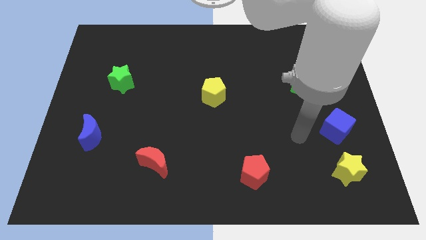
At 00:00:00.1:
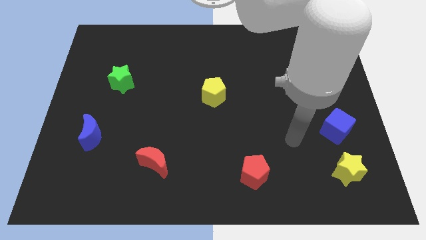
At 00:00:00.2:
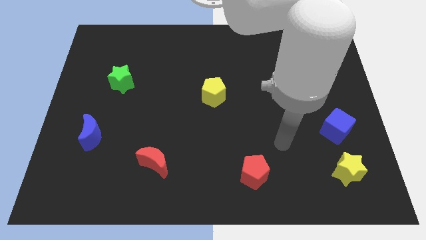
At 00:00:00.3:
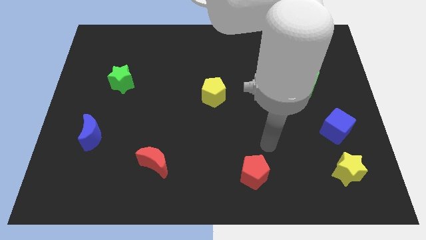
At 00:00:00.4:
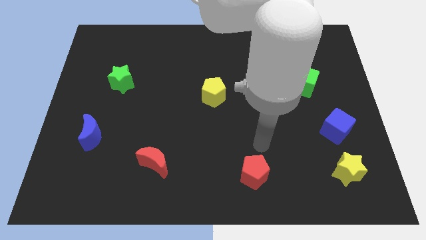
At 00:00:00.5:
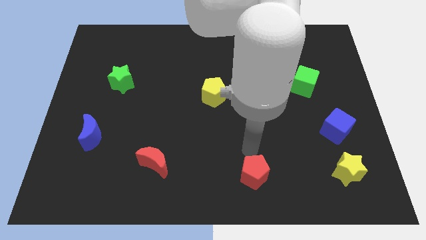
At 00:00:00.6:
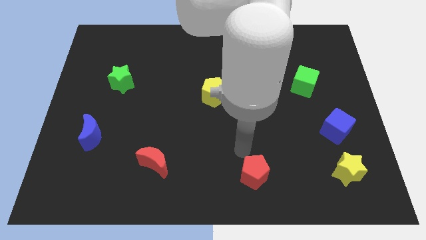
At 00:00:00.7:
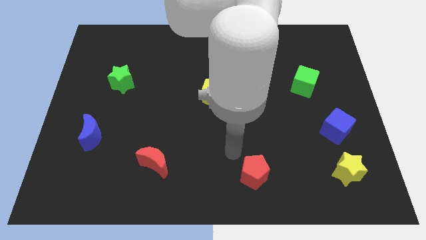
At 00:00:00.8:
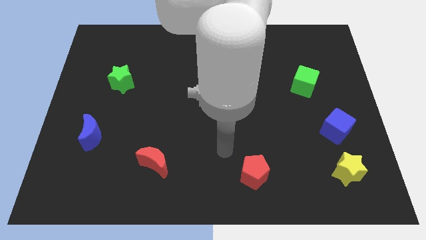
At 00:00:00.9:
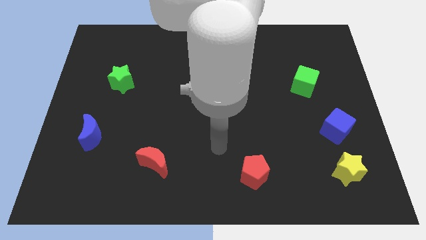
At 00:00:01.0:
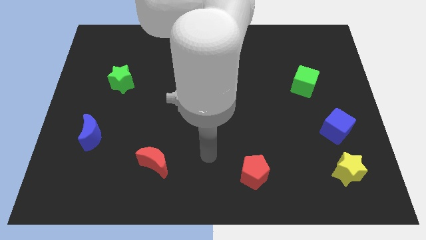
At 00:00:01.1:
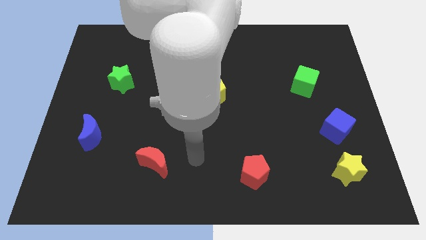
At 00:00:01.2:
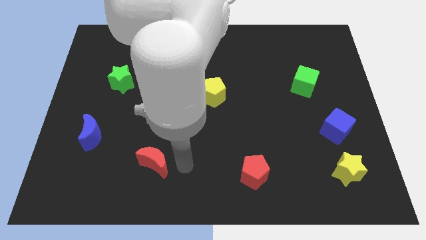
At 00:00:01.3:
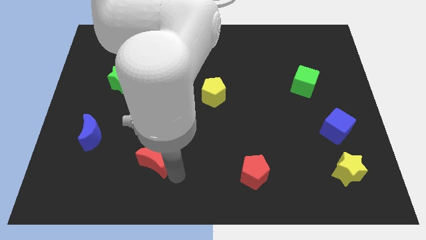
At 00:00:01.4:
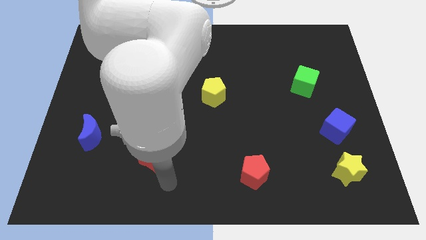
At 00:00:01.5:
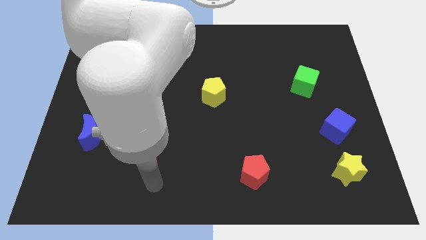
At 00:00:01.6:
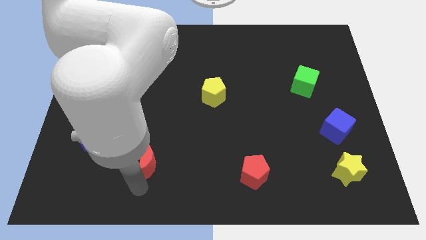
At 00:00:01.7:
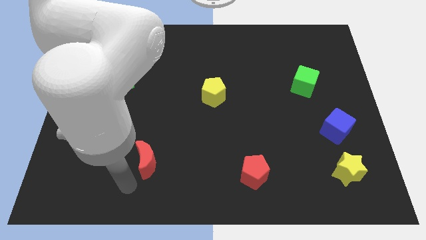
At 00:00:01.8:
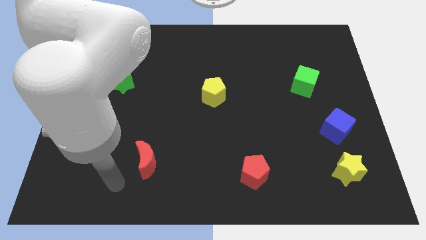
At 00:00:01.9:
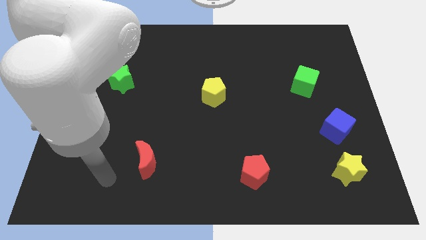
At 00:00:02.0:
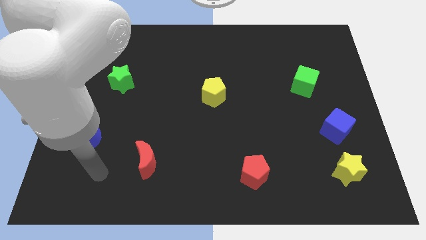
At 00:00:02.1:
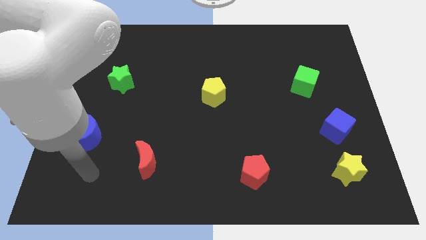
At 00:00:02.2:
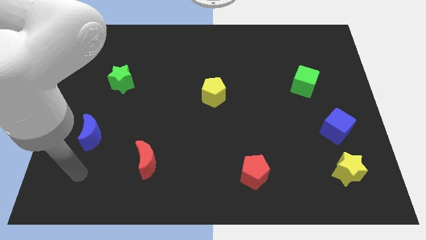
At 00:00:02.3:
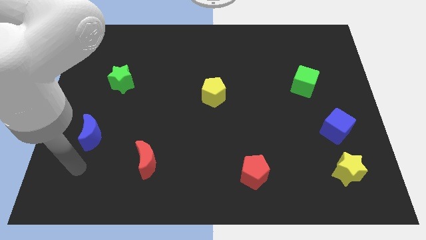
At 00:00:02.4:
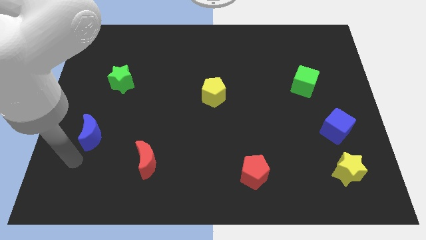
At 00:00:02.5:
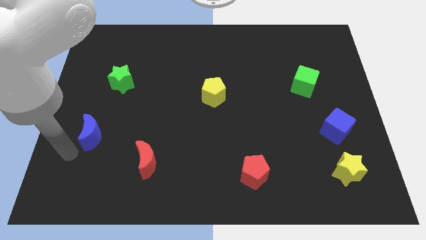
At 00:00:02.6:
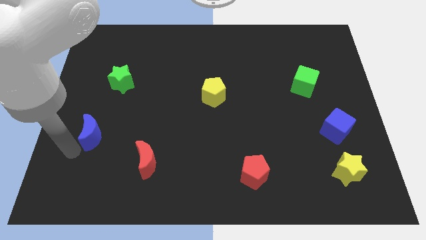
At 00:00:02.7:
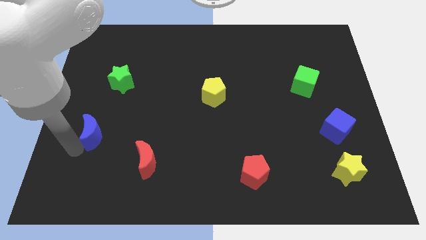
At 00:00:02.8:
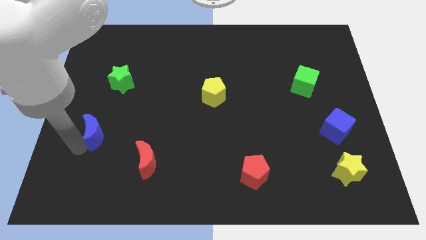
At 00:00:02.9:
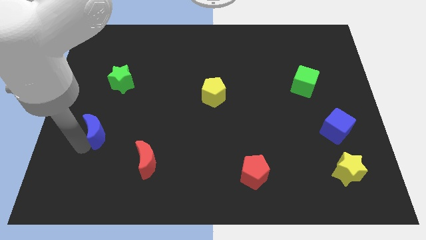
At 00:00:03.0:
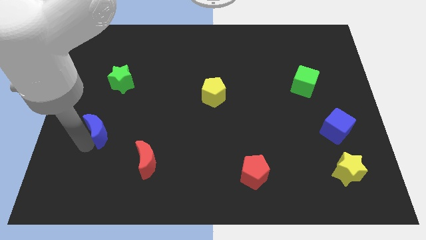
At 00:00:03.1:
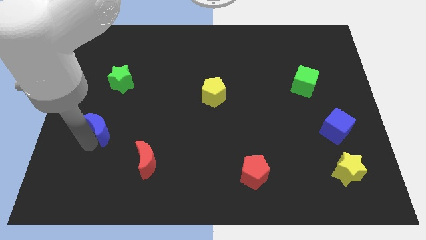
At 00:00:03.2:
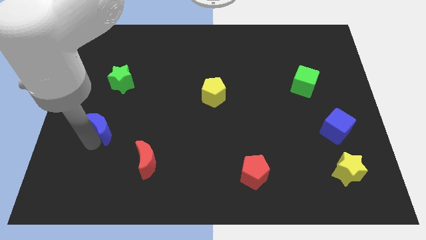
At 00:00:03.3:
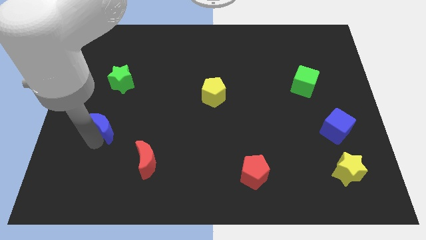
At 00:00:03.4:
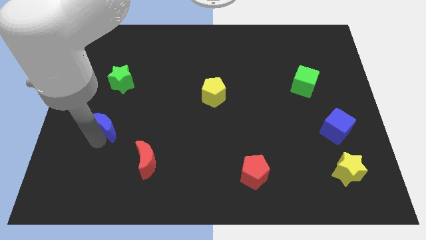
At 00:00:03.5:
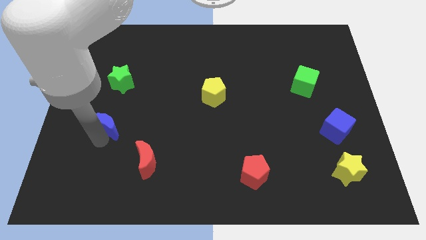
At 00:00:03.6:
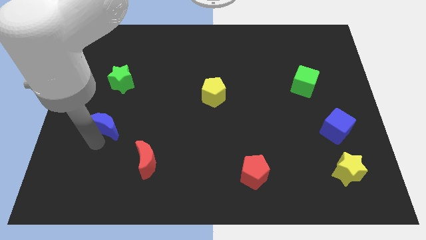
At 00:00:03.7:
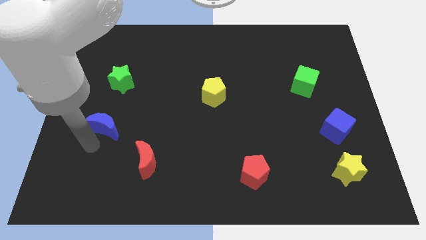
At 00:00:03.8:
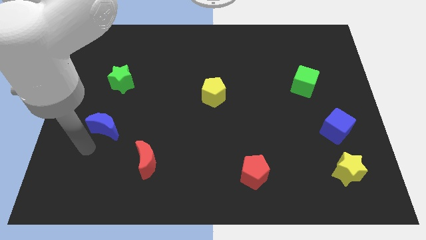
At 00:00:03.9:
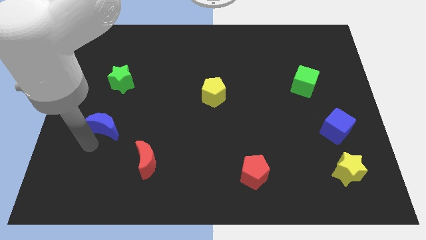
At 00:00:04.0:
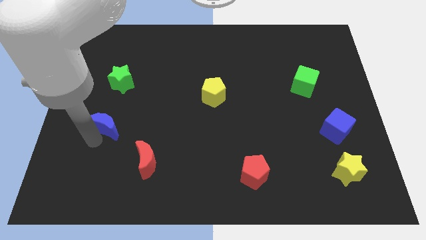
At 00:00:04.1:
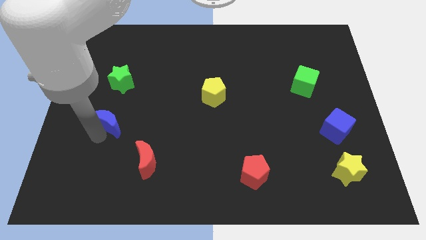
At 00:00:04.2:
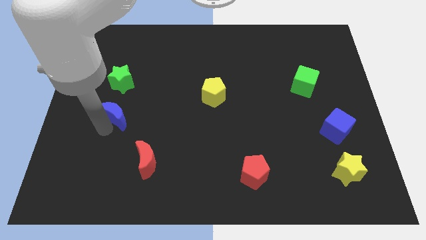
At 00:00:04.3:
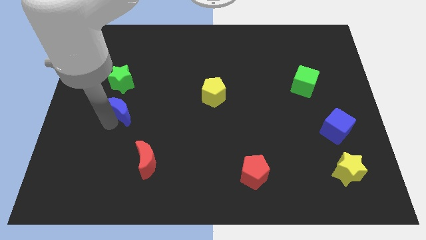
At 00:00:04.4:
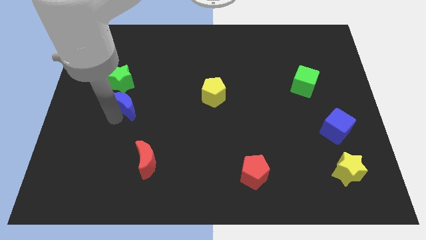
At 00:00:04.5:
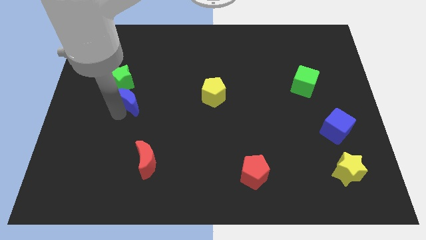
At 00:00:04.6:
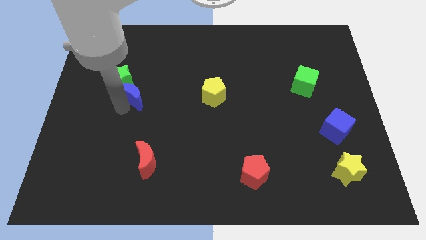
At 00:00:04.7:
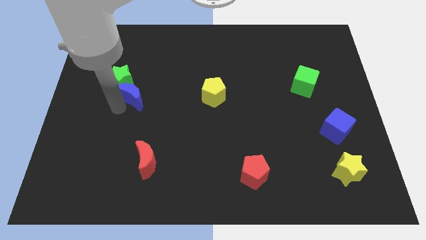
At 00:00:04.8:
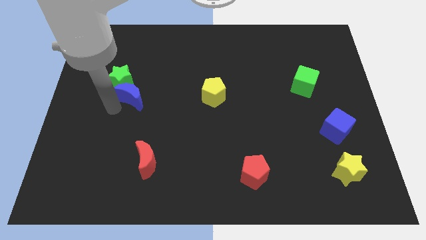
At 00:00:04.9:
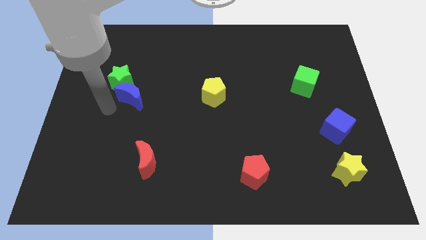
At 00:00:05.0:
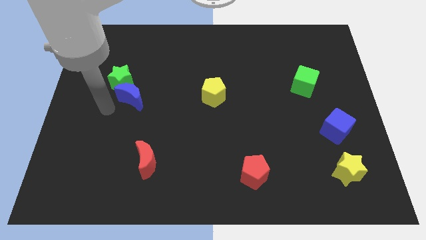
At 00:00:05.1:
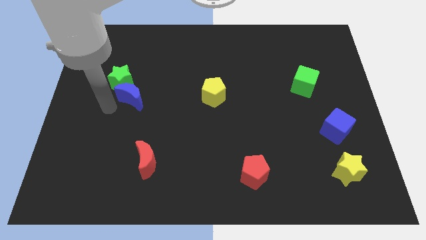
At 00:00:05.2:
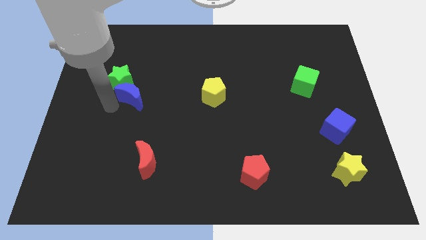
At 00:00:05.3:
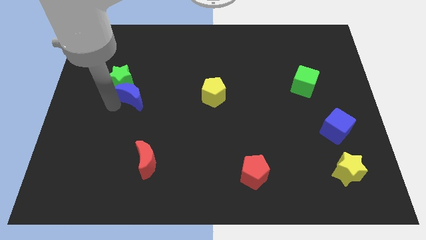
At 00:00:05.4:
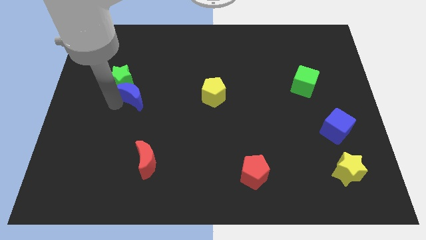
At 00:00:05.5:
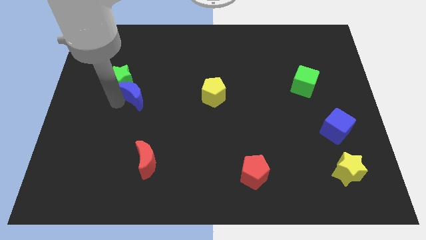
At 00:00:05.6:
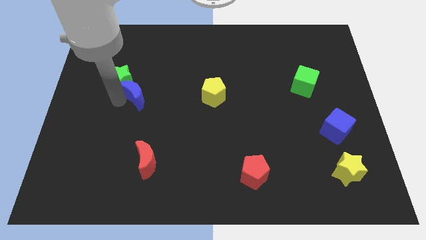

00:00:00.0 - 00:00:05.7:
push the blue moon right of the green star

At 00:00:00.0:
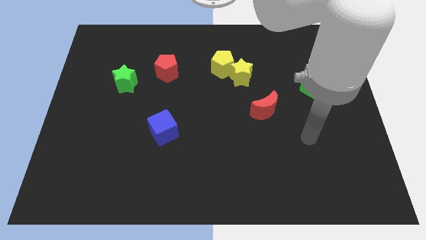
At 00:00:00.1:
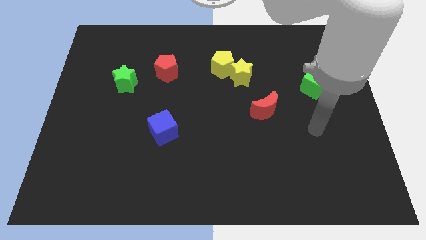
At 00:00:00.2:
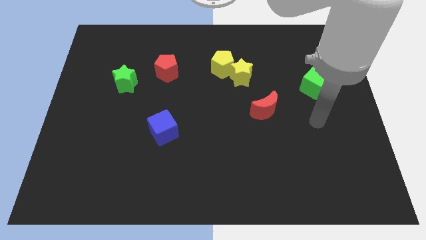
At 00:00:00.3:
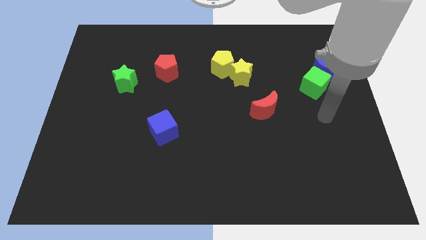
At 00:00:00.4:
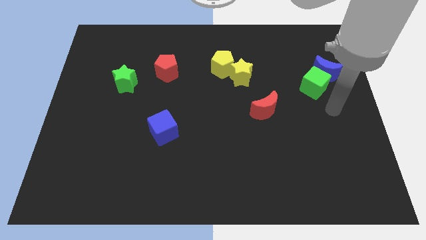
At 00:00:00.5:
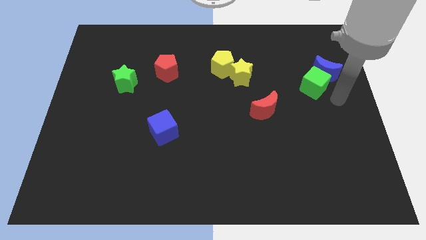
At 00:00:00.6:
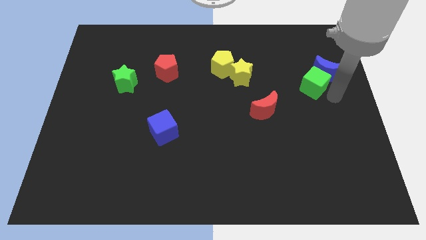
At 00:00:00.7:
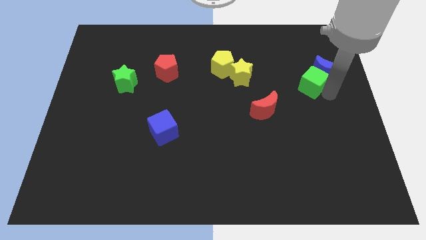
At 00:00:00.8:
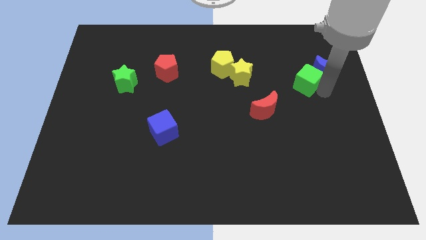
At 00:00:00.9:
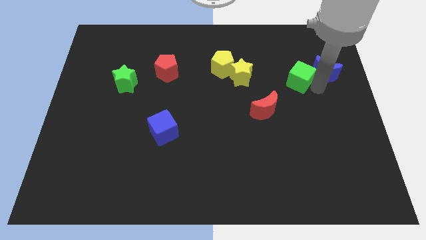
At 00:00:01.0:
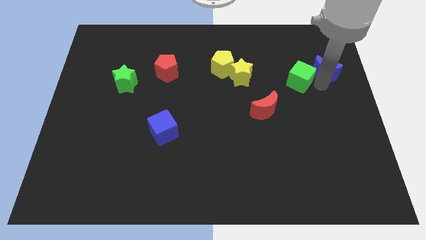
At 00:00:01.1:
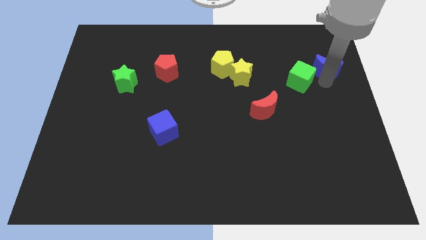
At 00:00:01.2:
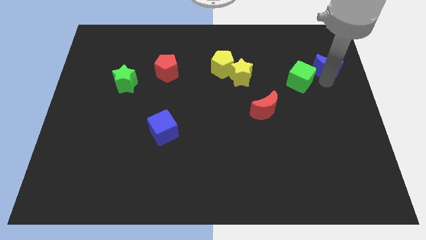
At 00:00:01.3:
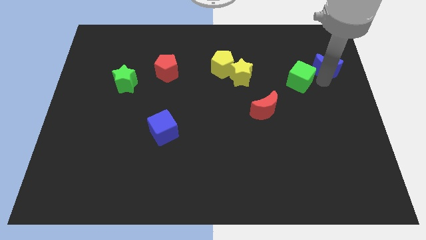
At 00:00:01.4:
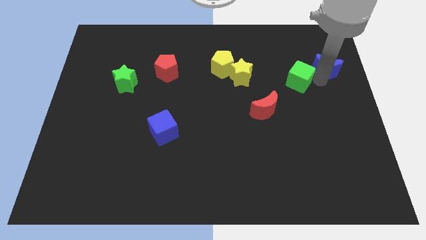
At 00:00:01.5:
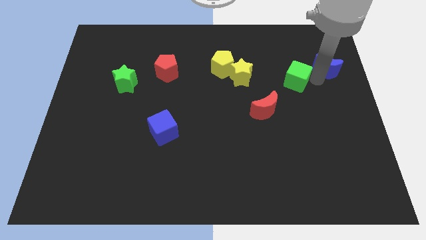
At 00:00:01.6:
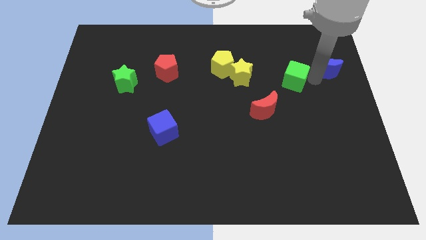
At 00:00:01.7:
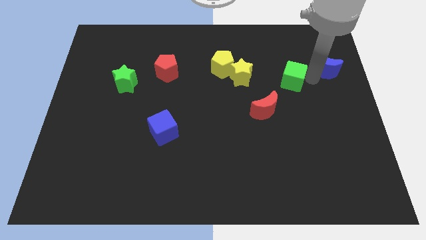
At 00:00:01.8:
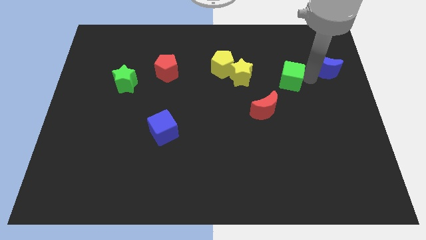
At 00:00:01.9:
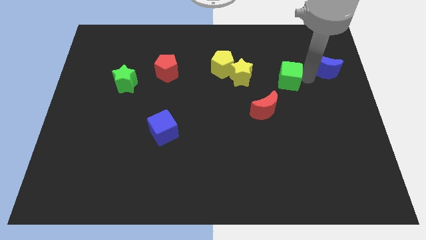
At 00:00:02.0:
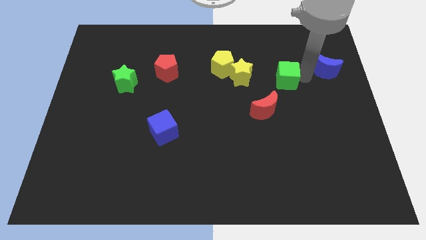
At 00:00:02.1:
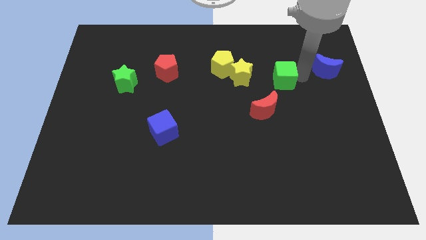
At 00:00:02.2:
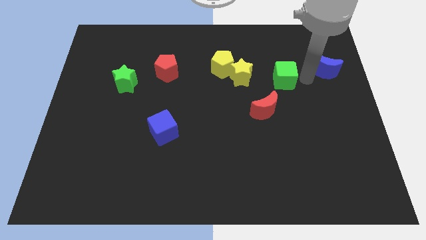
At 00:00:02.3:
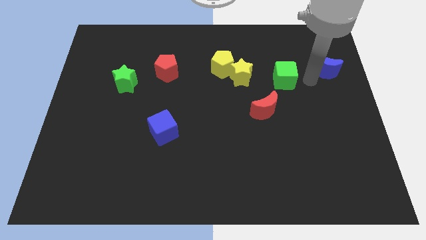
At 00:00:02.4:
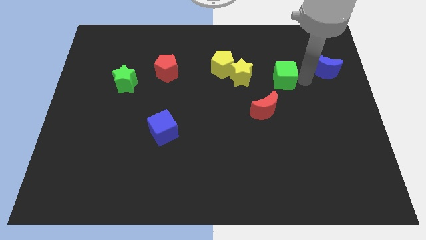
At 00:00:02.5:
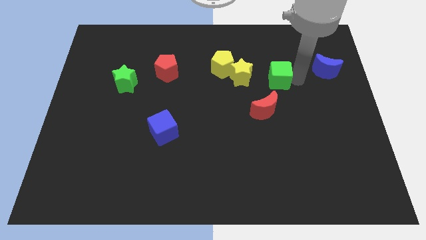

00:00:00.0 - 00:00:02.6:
push the green cube to the top of the red moon

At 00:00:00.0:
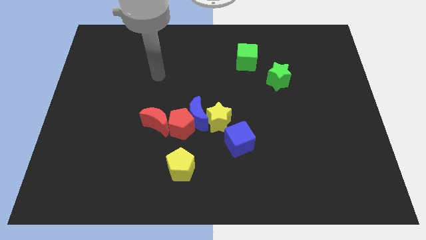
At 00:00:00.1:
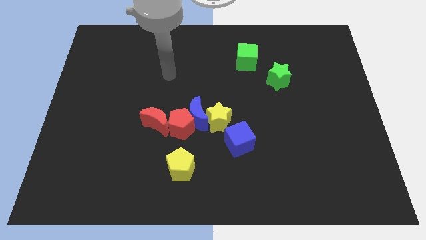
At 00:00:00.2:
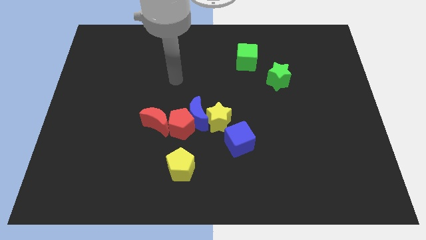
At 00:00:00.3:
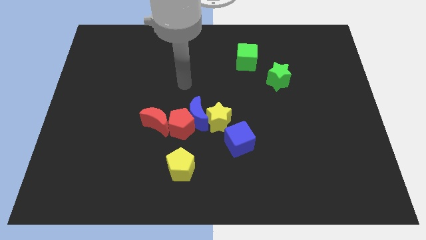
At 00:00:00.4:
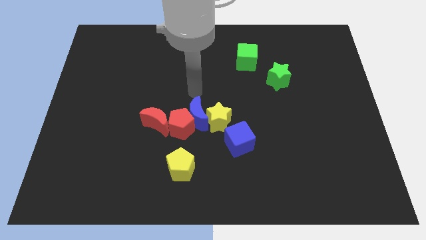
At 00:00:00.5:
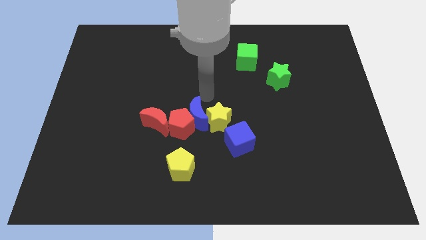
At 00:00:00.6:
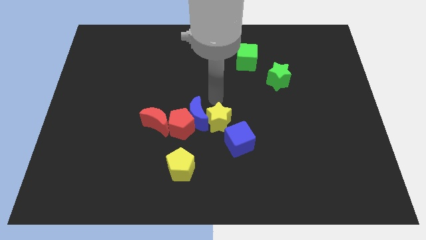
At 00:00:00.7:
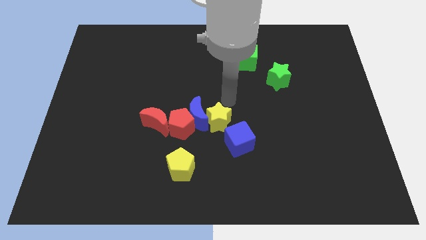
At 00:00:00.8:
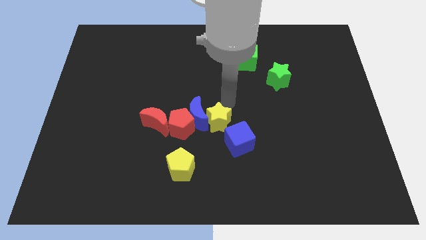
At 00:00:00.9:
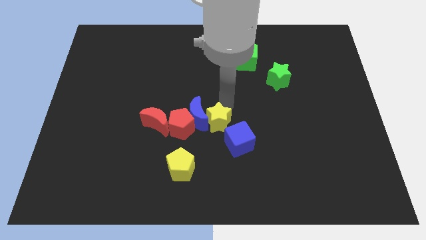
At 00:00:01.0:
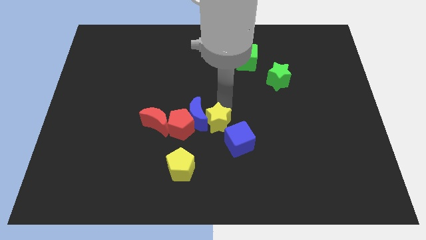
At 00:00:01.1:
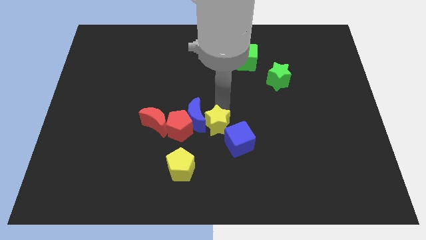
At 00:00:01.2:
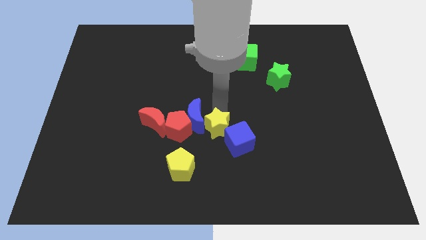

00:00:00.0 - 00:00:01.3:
move the yellow star to the top right side of the yellow pentagon
